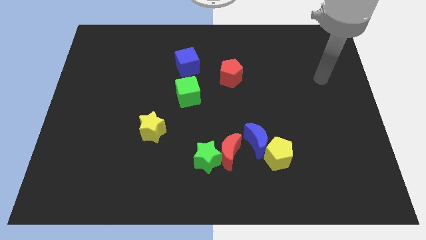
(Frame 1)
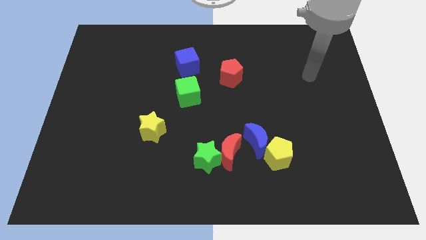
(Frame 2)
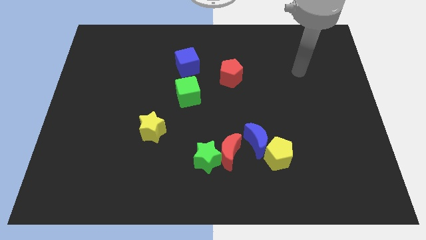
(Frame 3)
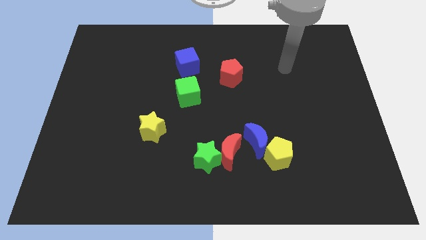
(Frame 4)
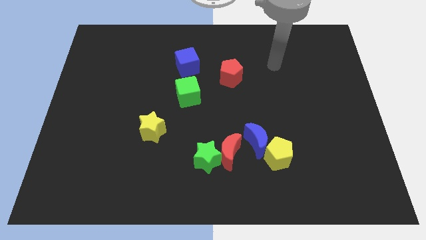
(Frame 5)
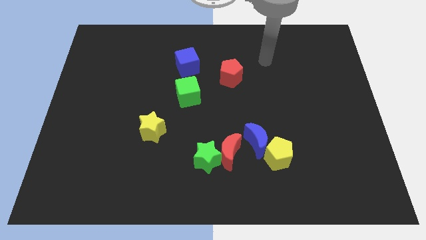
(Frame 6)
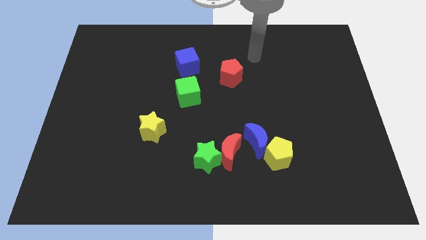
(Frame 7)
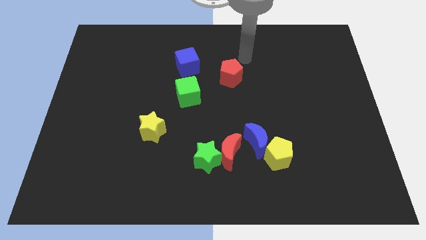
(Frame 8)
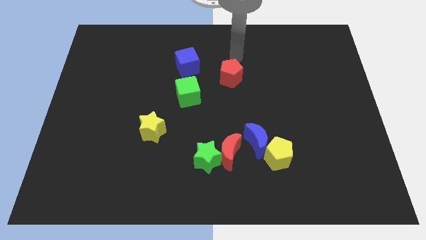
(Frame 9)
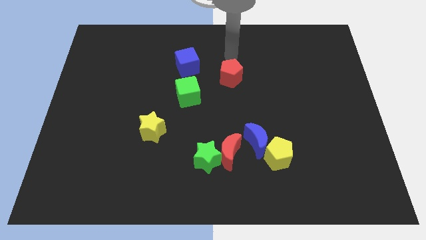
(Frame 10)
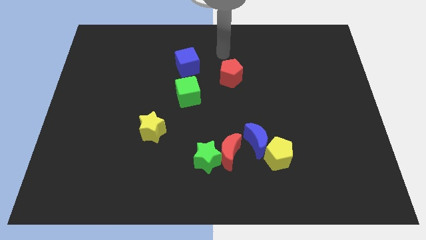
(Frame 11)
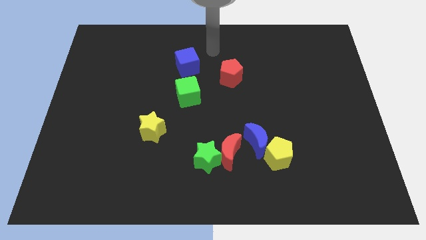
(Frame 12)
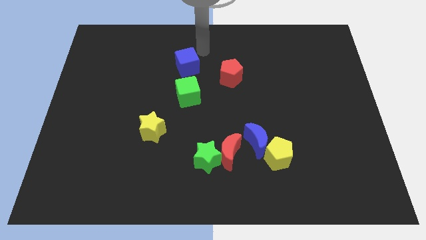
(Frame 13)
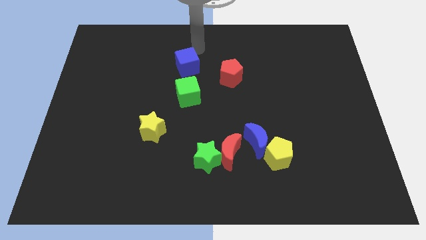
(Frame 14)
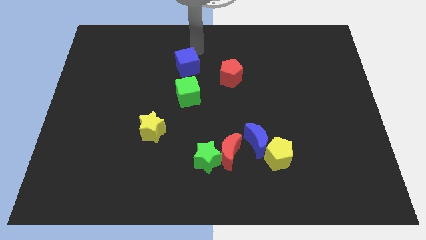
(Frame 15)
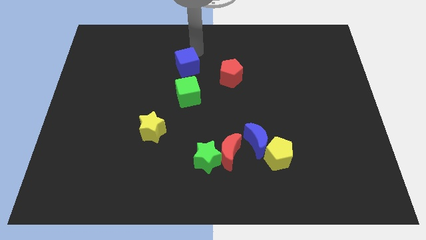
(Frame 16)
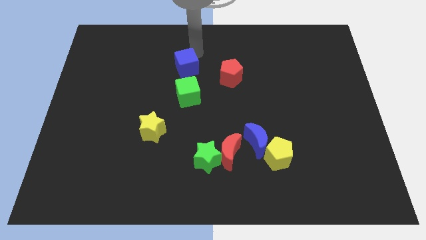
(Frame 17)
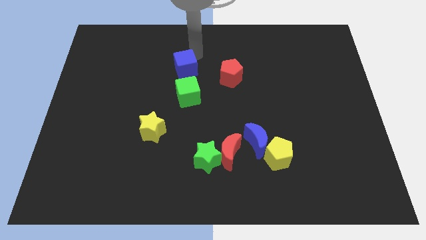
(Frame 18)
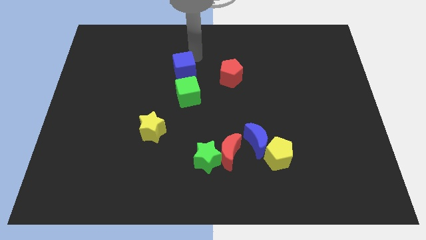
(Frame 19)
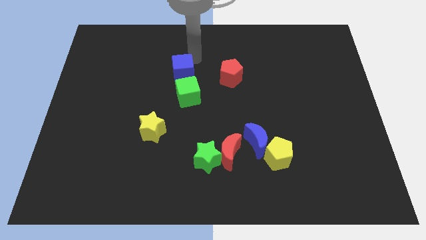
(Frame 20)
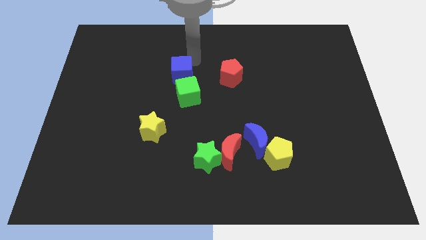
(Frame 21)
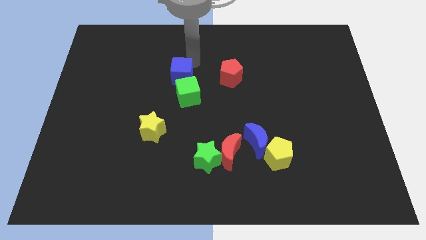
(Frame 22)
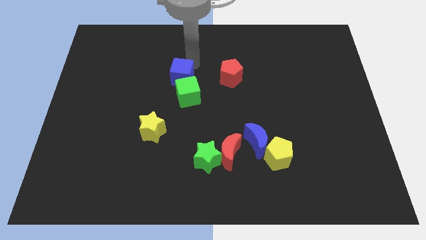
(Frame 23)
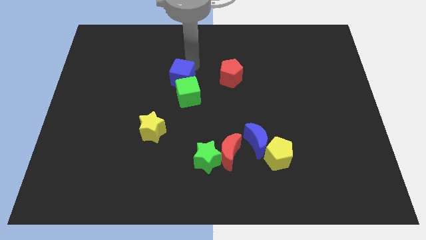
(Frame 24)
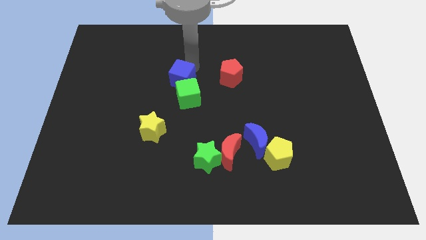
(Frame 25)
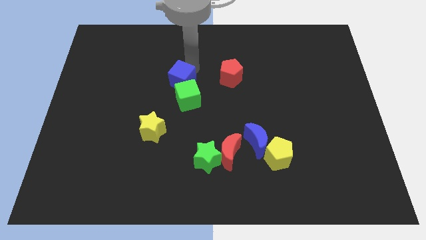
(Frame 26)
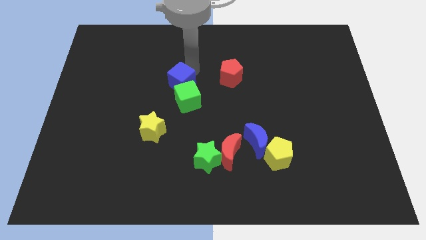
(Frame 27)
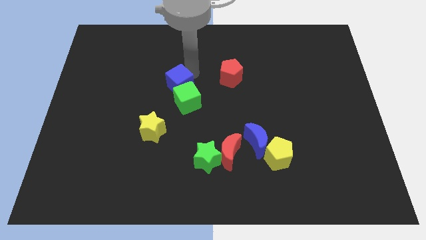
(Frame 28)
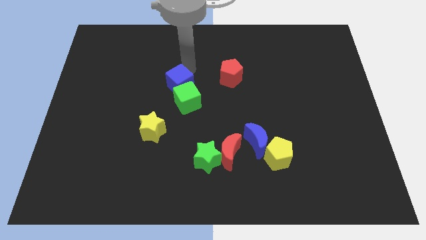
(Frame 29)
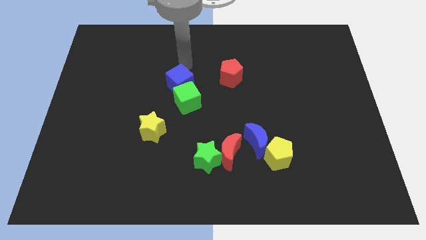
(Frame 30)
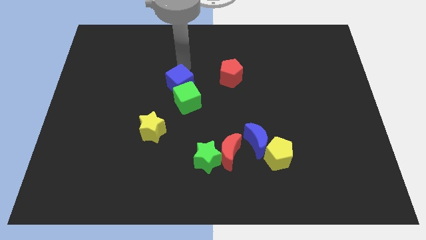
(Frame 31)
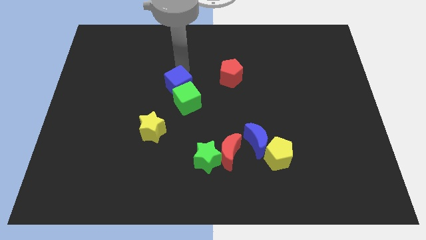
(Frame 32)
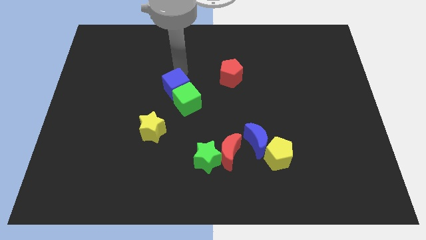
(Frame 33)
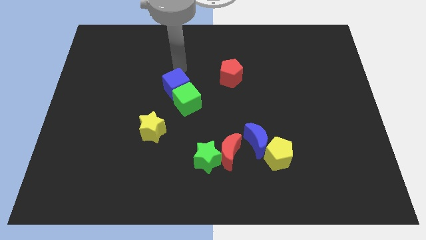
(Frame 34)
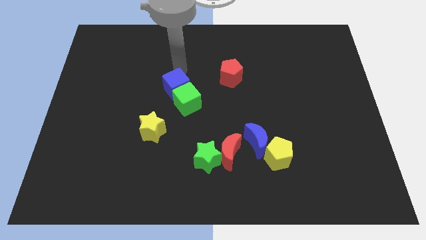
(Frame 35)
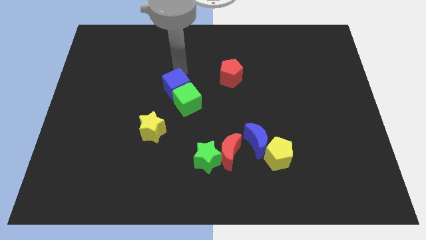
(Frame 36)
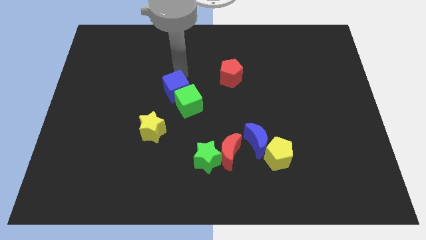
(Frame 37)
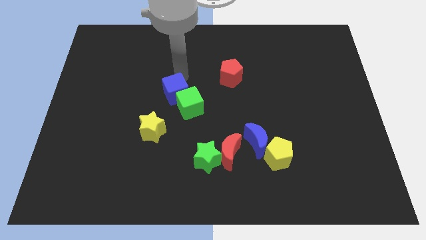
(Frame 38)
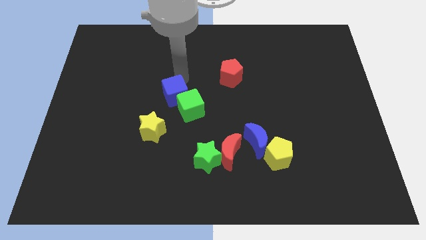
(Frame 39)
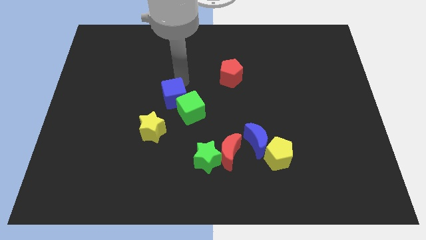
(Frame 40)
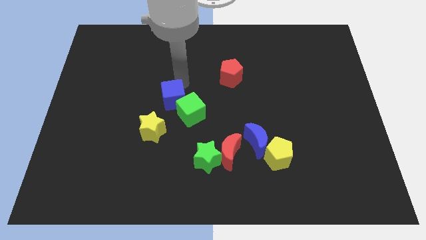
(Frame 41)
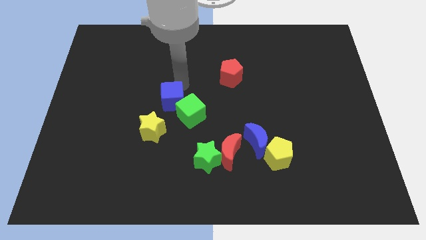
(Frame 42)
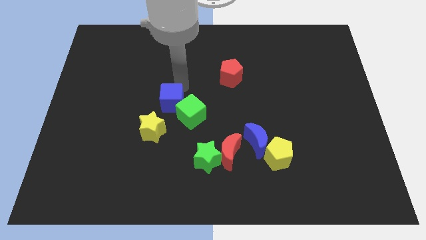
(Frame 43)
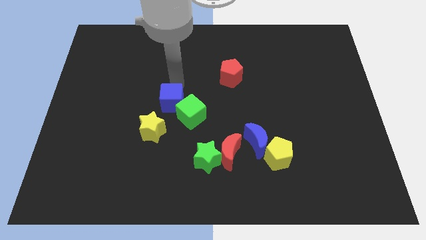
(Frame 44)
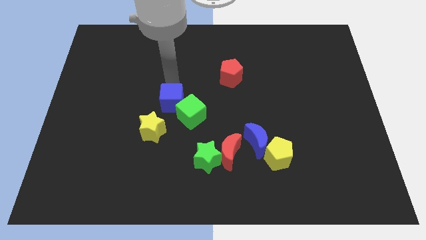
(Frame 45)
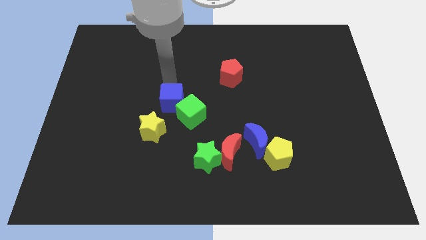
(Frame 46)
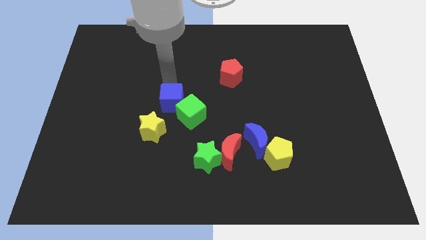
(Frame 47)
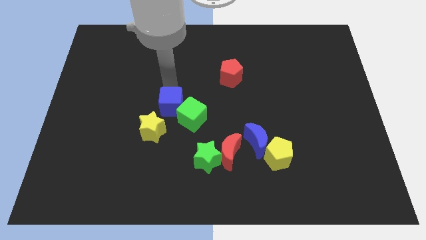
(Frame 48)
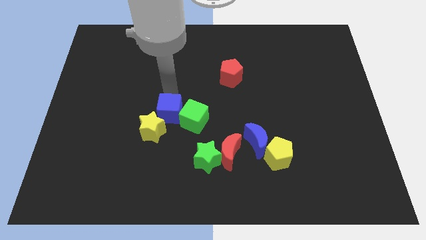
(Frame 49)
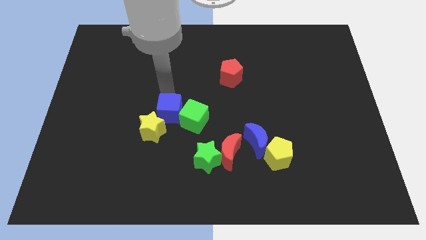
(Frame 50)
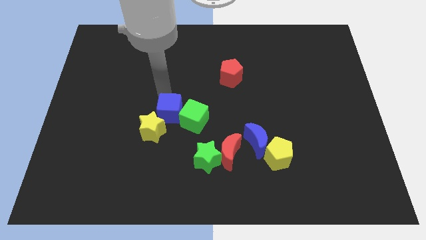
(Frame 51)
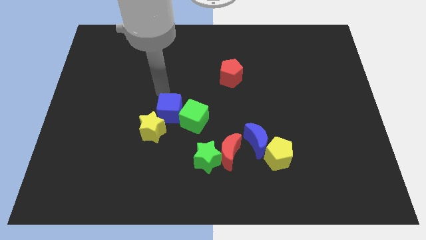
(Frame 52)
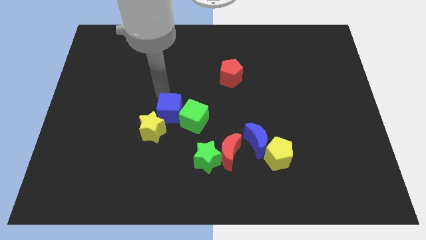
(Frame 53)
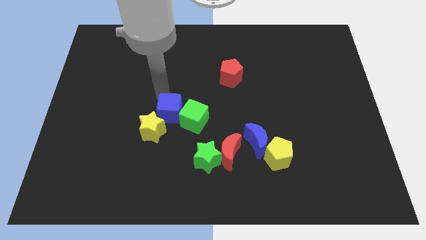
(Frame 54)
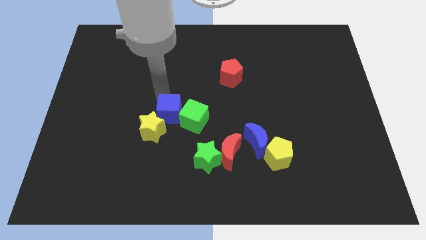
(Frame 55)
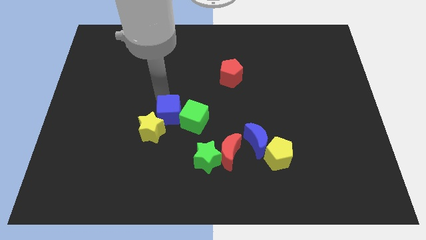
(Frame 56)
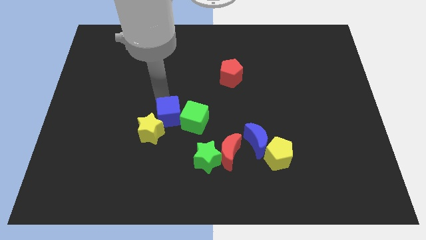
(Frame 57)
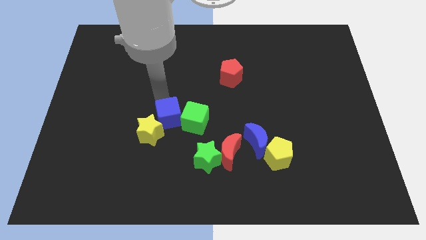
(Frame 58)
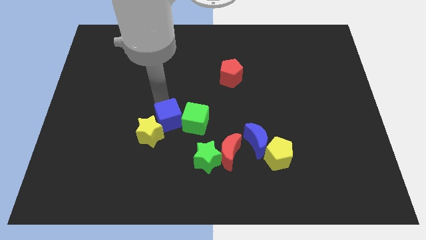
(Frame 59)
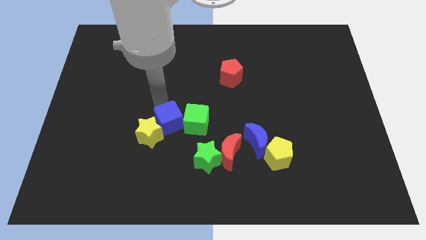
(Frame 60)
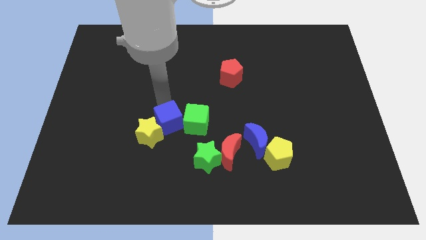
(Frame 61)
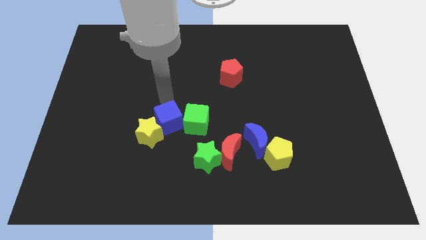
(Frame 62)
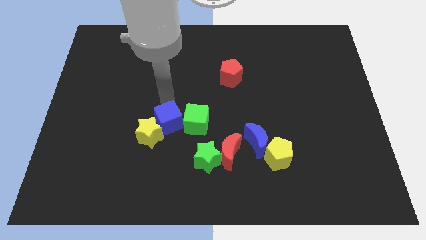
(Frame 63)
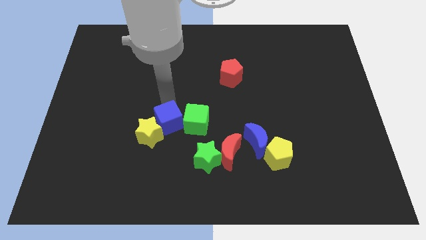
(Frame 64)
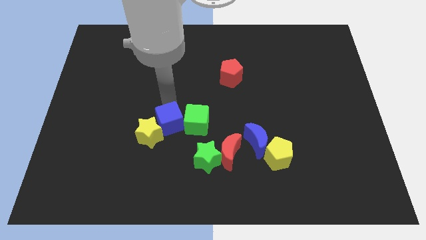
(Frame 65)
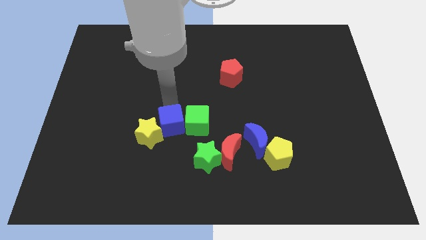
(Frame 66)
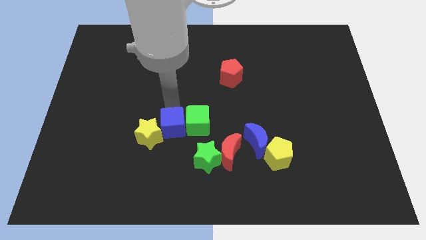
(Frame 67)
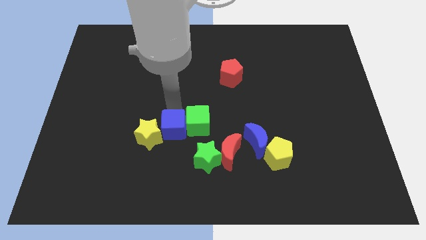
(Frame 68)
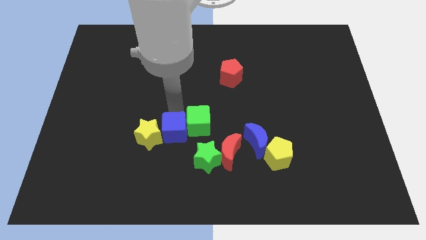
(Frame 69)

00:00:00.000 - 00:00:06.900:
push the blue cube down

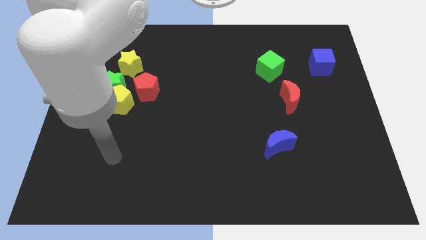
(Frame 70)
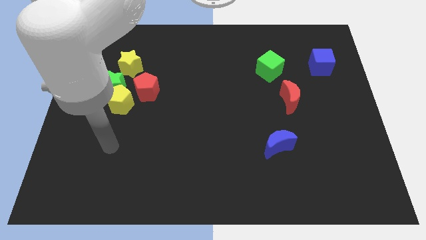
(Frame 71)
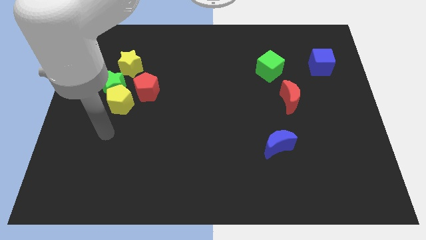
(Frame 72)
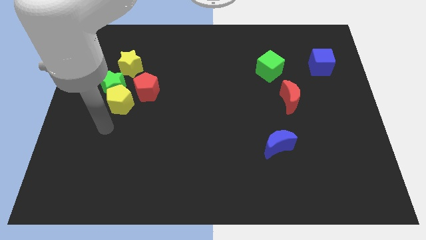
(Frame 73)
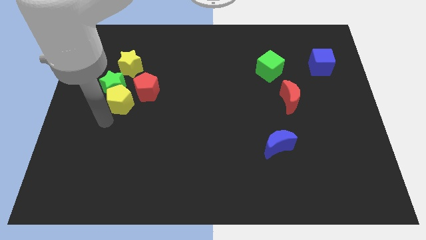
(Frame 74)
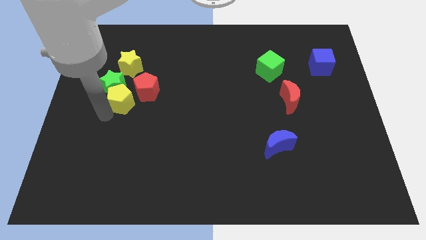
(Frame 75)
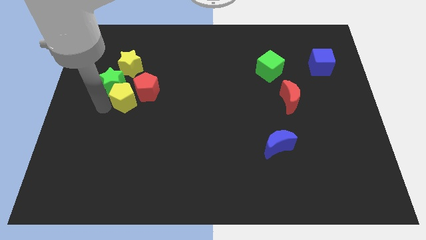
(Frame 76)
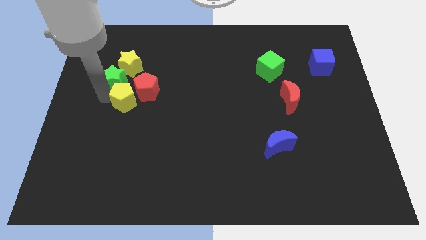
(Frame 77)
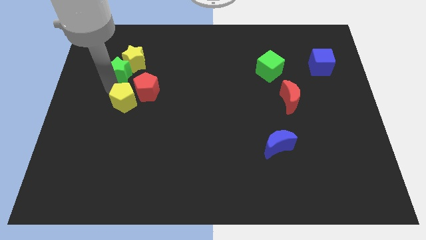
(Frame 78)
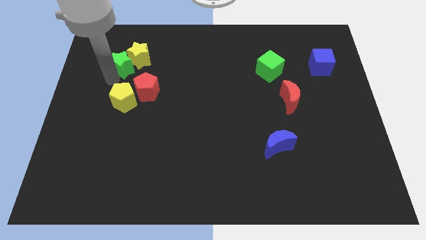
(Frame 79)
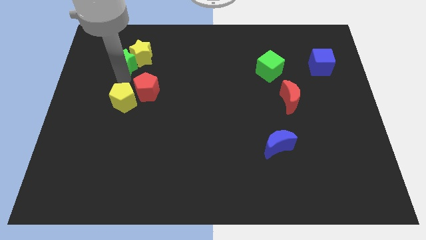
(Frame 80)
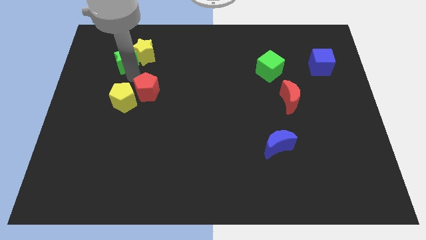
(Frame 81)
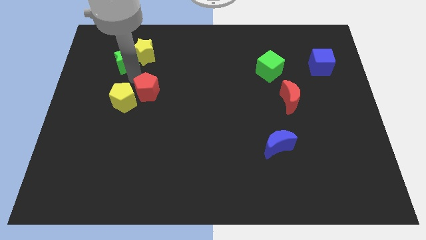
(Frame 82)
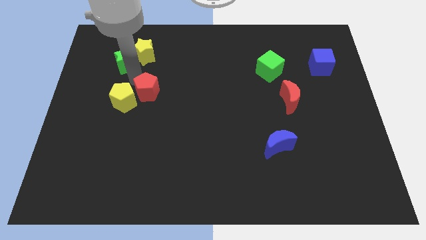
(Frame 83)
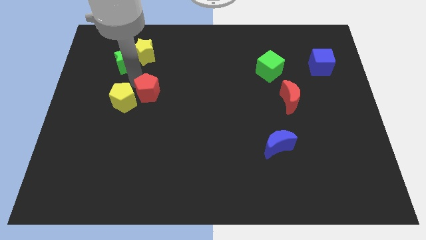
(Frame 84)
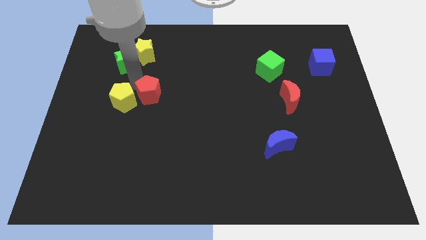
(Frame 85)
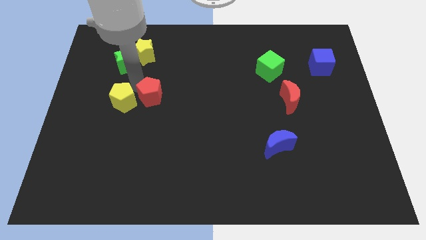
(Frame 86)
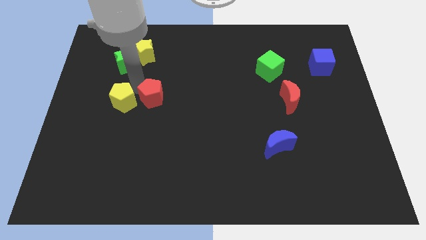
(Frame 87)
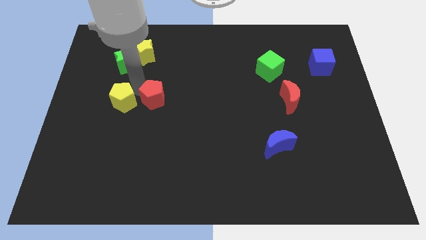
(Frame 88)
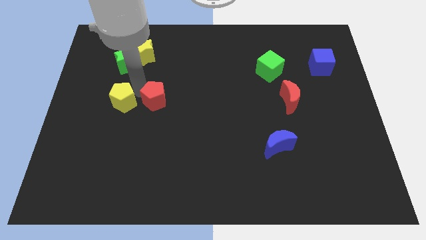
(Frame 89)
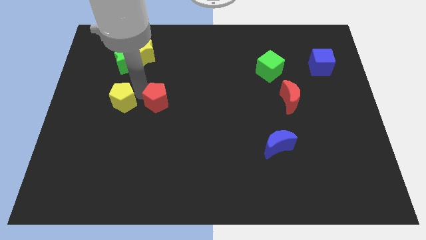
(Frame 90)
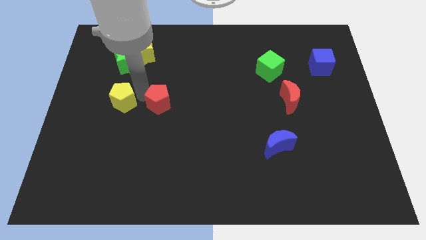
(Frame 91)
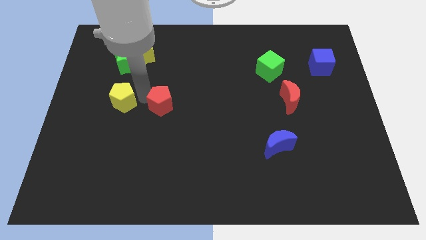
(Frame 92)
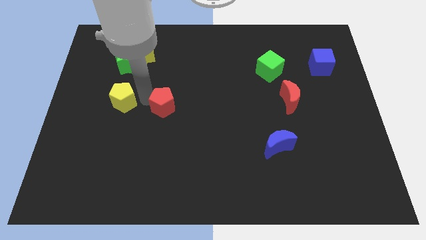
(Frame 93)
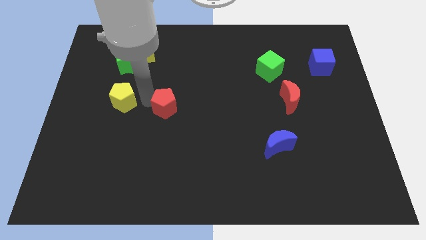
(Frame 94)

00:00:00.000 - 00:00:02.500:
slightly move the red pentagon downwards and to the right diagonally
